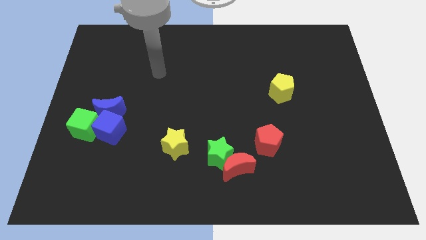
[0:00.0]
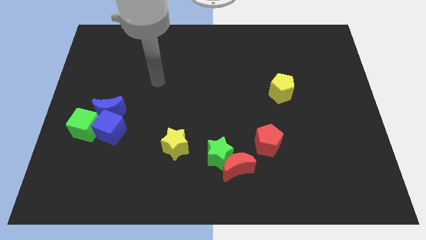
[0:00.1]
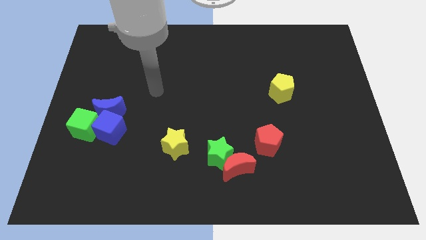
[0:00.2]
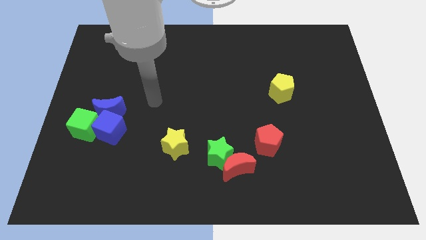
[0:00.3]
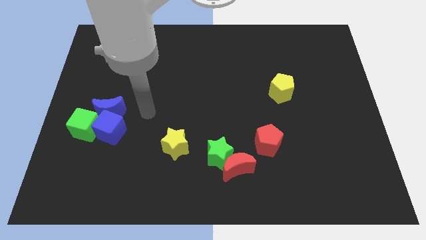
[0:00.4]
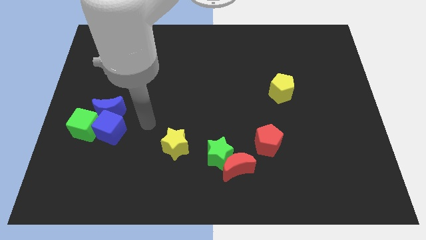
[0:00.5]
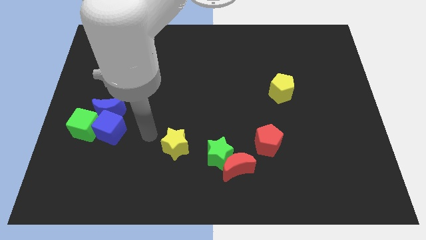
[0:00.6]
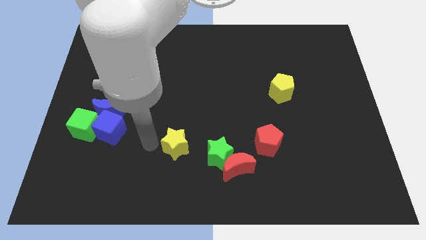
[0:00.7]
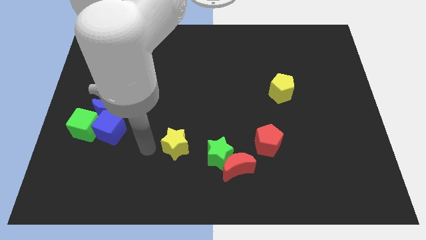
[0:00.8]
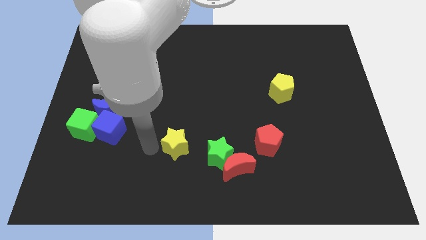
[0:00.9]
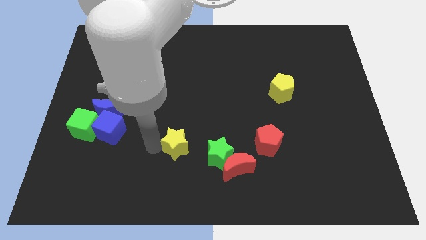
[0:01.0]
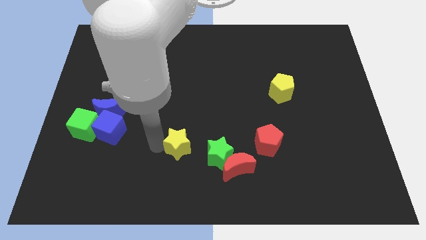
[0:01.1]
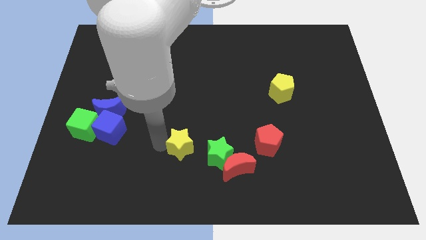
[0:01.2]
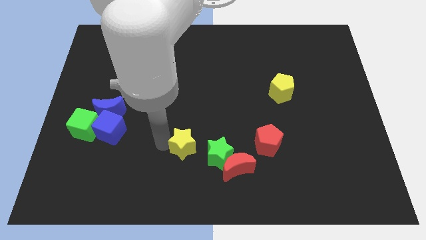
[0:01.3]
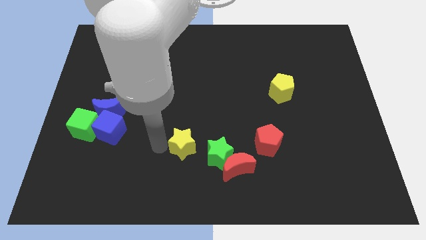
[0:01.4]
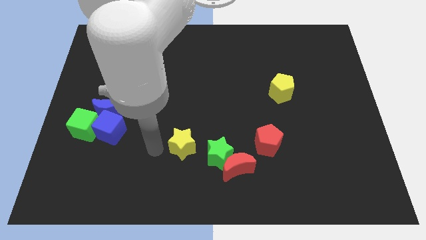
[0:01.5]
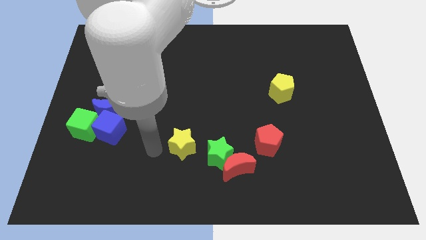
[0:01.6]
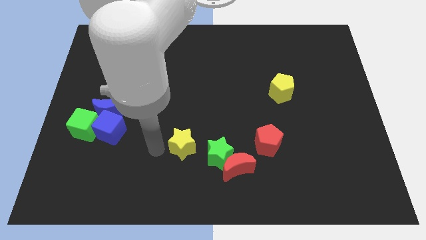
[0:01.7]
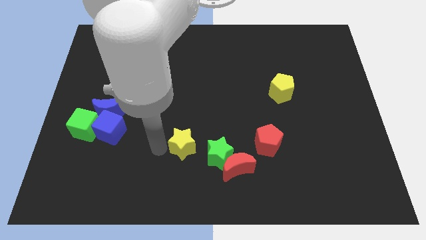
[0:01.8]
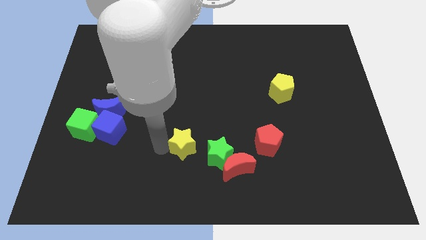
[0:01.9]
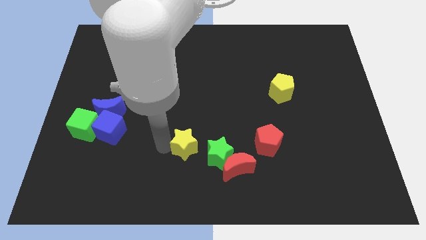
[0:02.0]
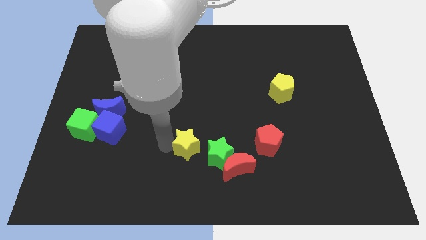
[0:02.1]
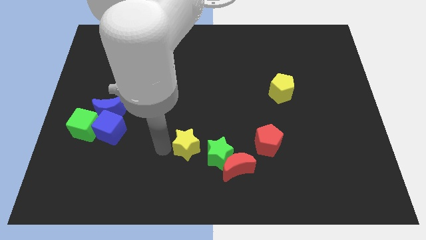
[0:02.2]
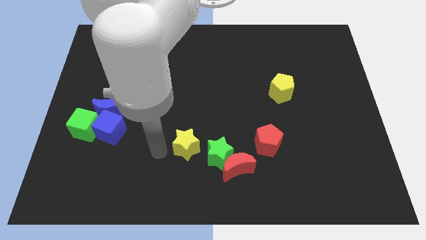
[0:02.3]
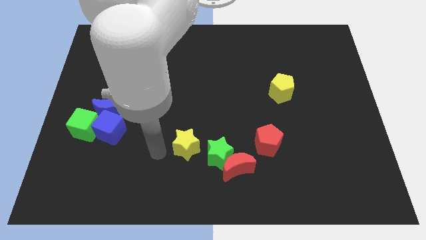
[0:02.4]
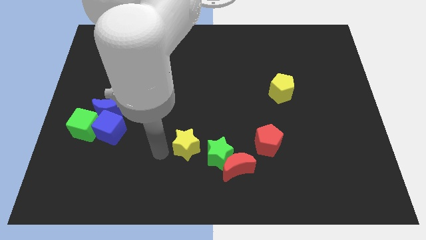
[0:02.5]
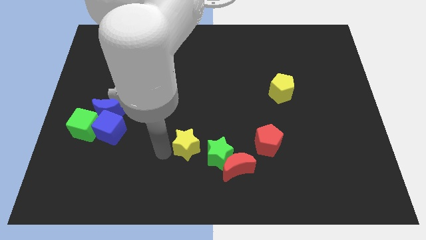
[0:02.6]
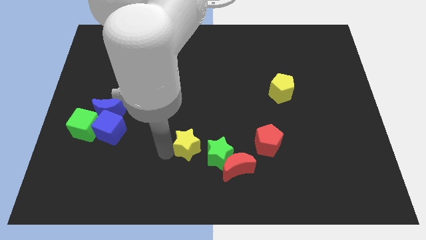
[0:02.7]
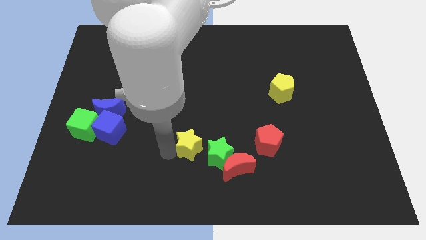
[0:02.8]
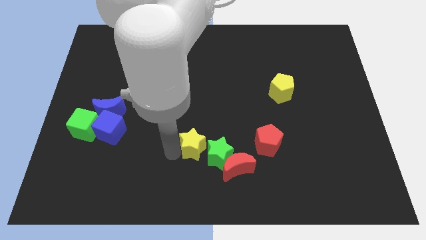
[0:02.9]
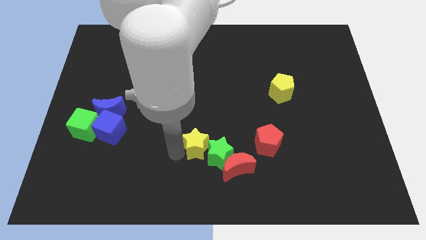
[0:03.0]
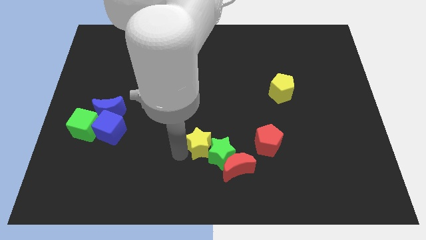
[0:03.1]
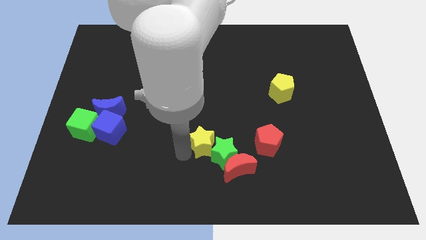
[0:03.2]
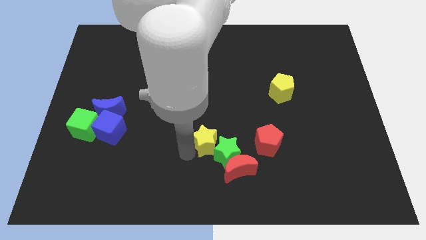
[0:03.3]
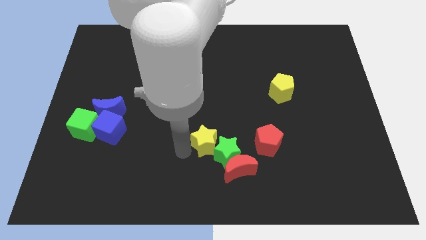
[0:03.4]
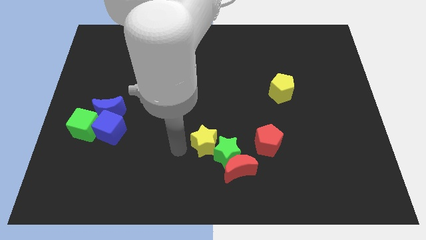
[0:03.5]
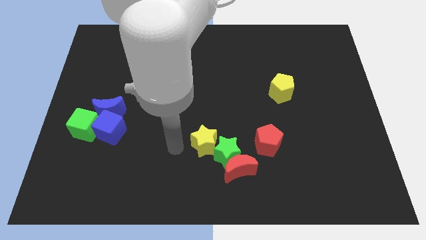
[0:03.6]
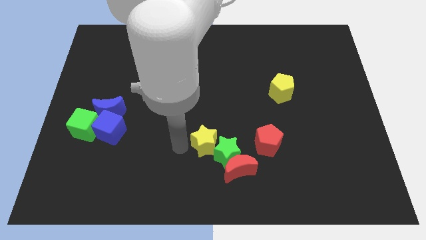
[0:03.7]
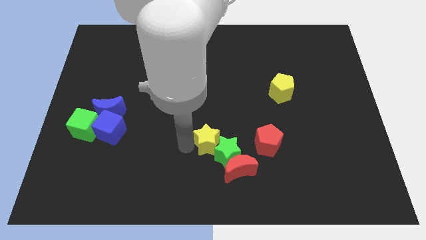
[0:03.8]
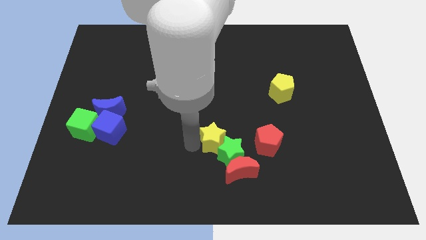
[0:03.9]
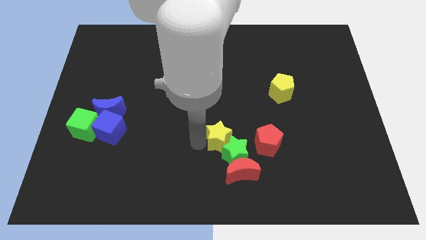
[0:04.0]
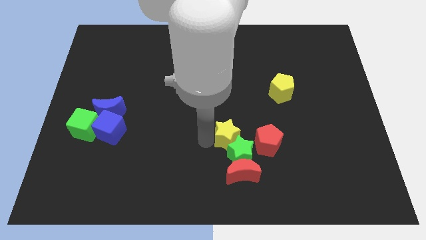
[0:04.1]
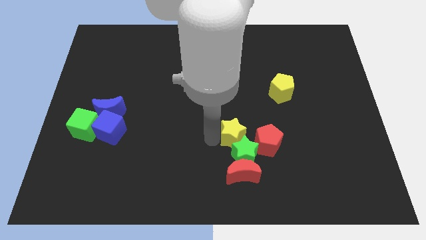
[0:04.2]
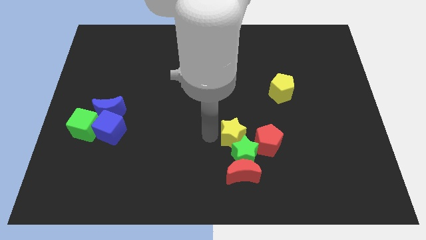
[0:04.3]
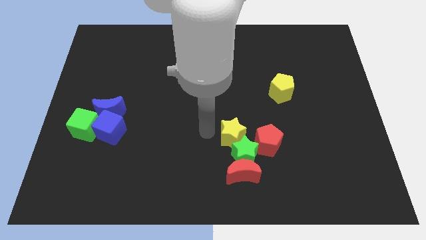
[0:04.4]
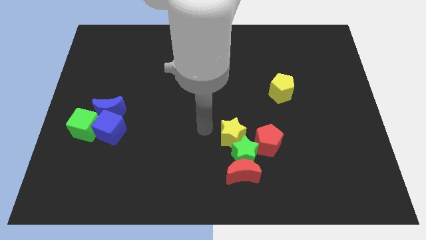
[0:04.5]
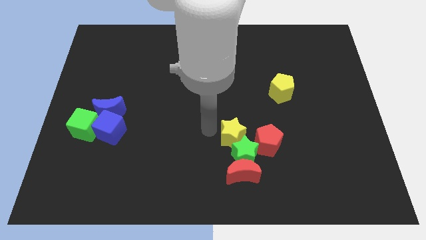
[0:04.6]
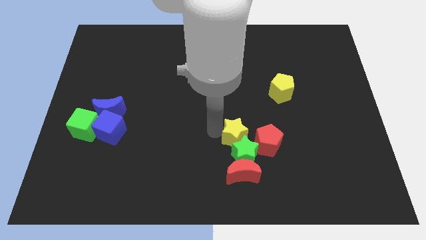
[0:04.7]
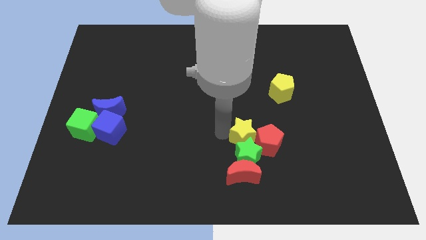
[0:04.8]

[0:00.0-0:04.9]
move the yellow star towards the red pentagon

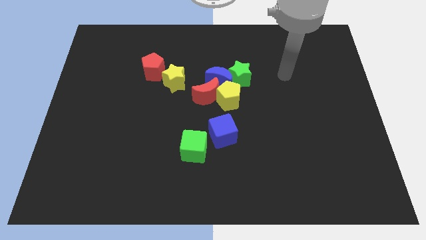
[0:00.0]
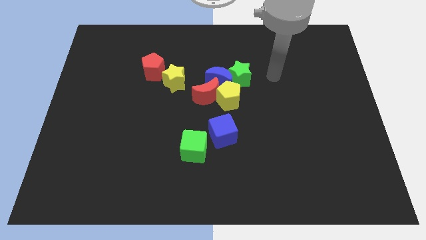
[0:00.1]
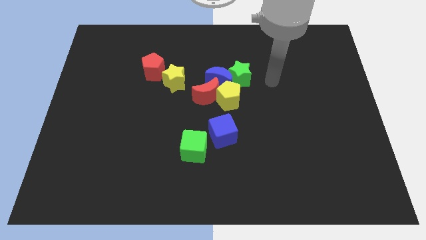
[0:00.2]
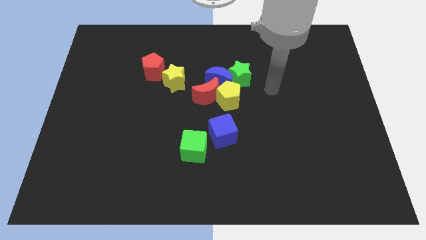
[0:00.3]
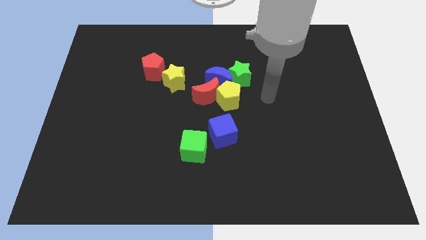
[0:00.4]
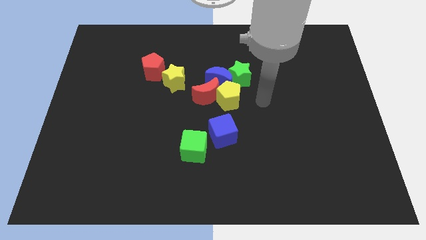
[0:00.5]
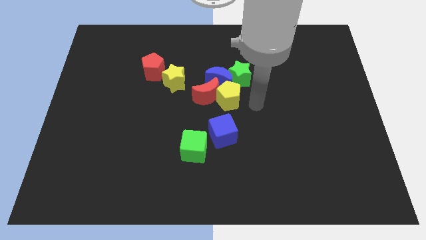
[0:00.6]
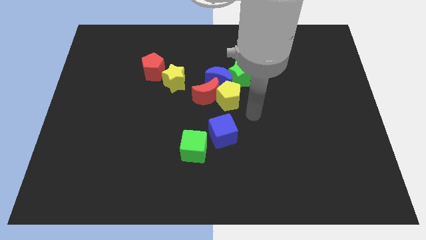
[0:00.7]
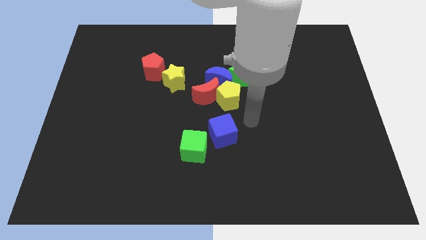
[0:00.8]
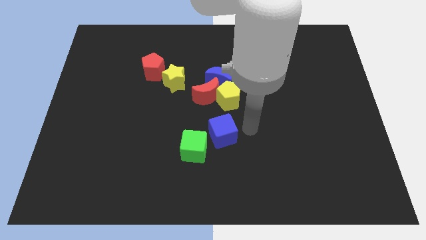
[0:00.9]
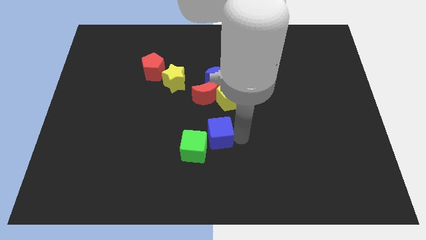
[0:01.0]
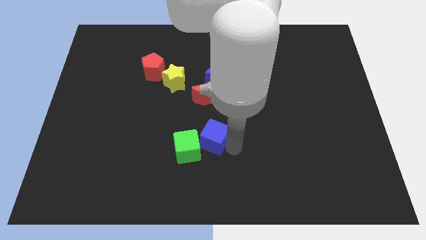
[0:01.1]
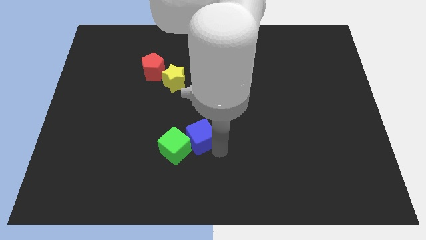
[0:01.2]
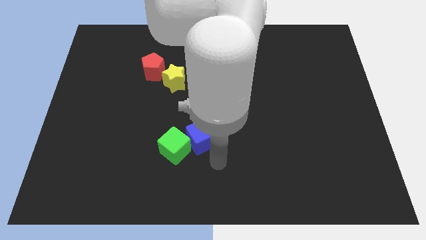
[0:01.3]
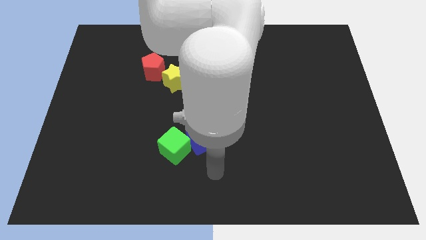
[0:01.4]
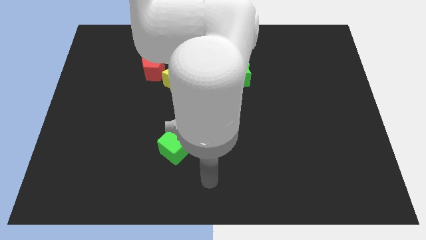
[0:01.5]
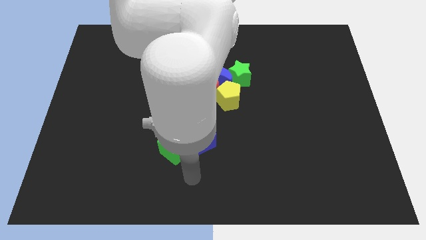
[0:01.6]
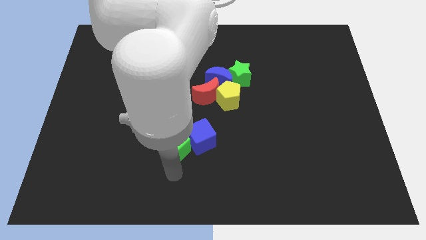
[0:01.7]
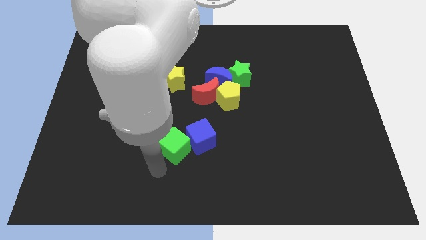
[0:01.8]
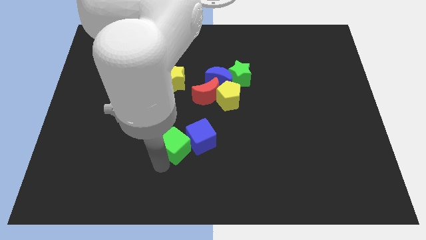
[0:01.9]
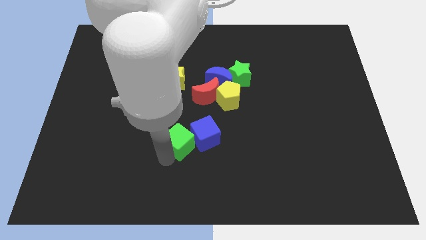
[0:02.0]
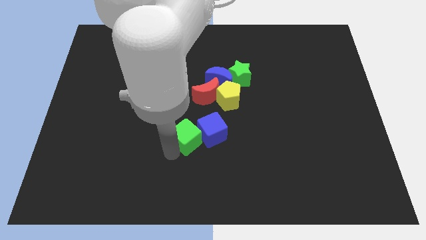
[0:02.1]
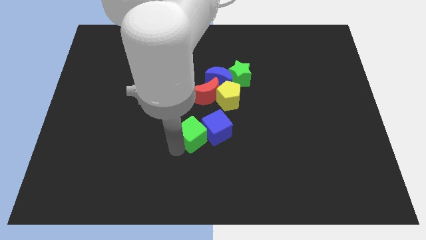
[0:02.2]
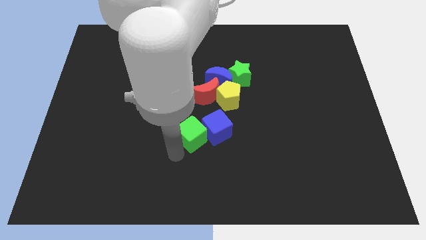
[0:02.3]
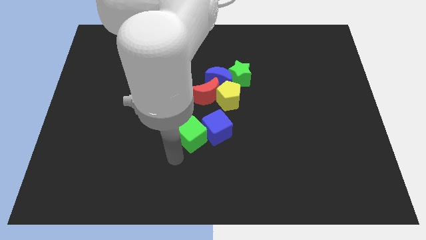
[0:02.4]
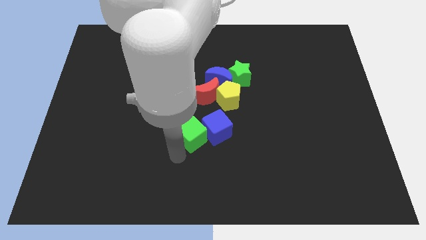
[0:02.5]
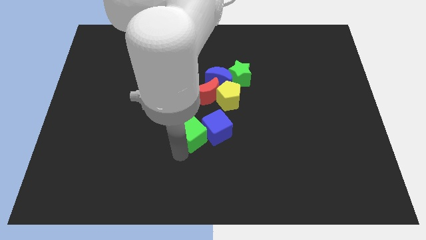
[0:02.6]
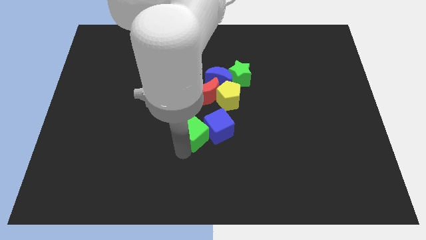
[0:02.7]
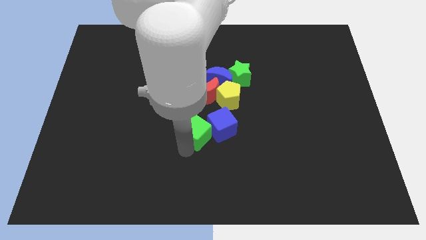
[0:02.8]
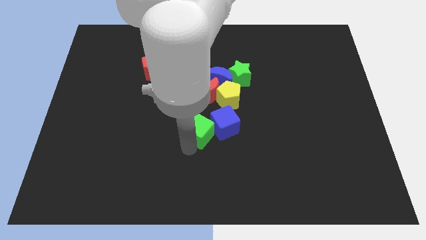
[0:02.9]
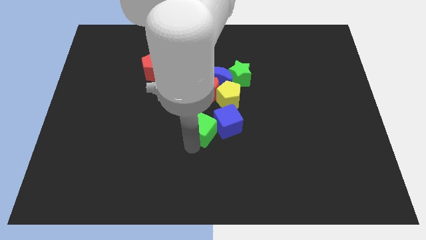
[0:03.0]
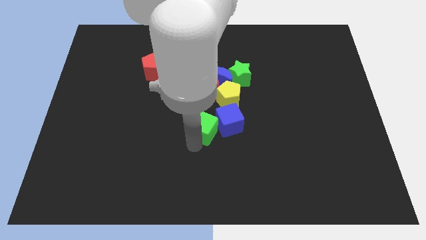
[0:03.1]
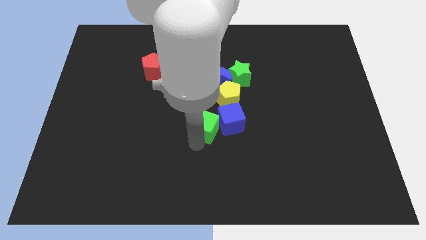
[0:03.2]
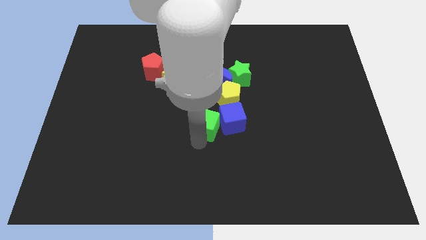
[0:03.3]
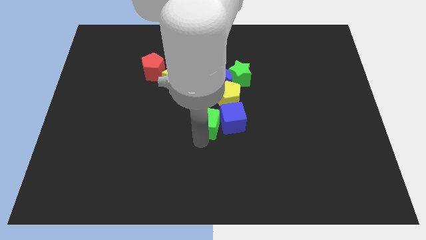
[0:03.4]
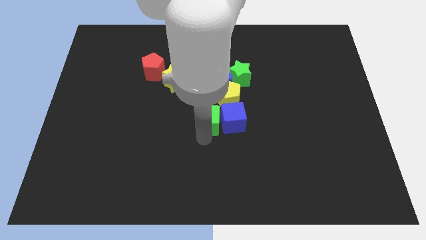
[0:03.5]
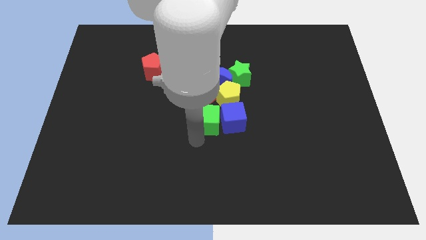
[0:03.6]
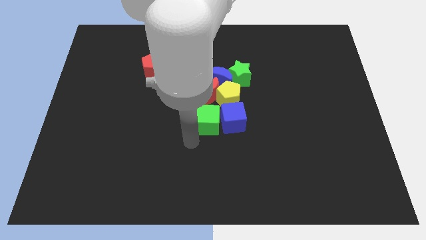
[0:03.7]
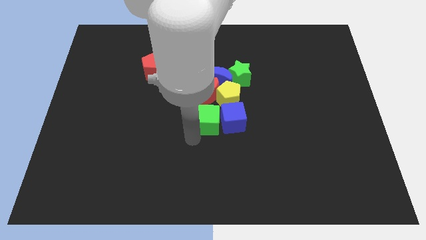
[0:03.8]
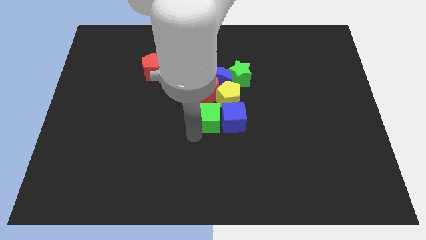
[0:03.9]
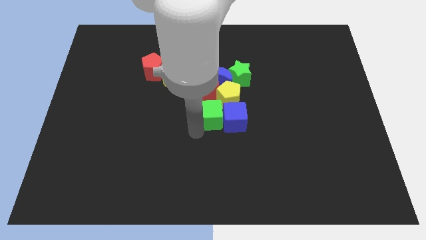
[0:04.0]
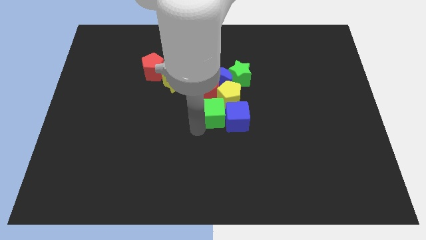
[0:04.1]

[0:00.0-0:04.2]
move the green cube close to the yellow pentagon
